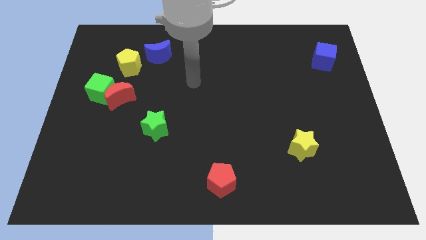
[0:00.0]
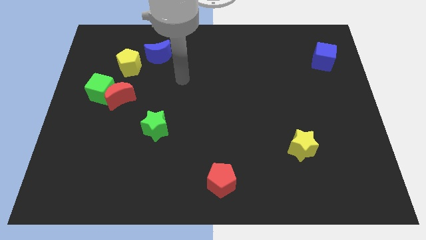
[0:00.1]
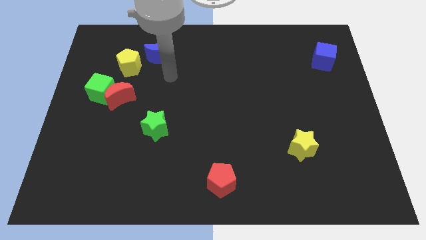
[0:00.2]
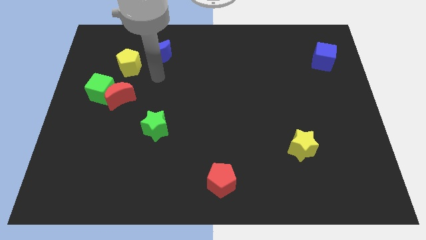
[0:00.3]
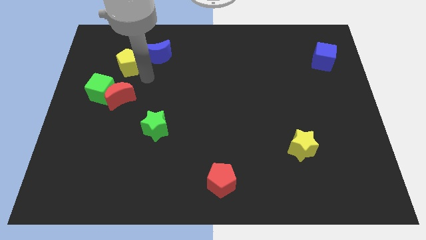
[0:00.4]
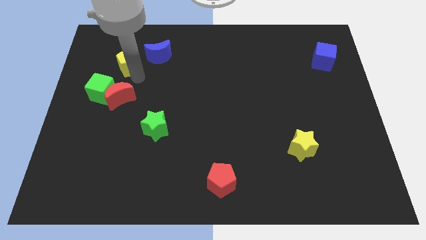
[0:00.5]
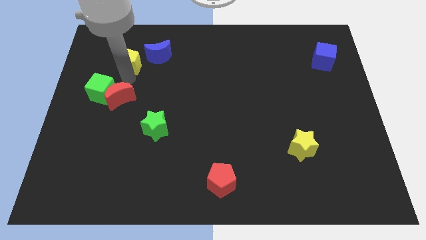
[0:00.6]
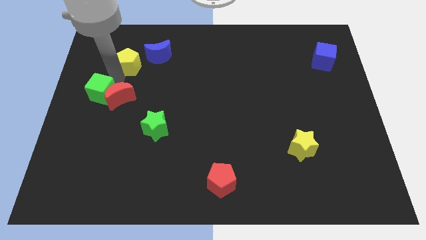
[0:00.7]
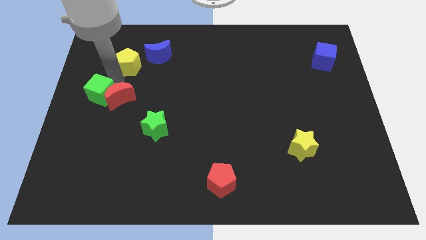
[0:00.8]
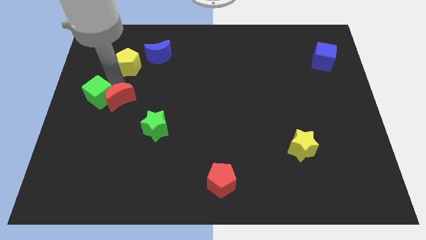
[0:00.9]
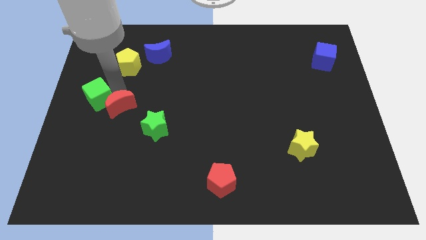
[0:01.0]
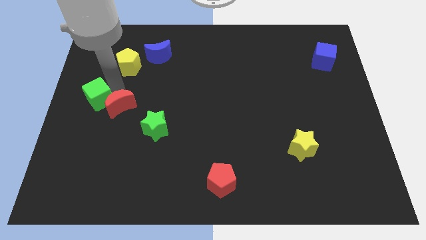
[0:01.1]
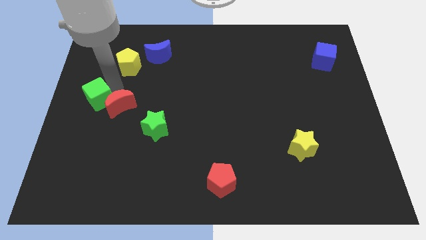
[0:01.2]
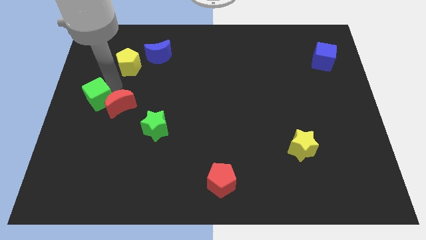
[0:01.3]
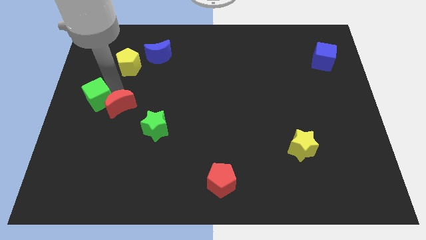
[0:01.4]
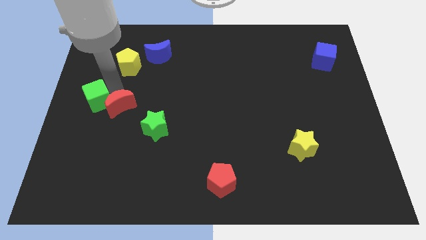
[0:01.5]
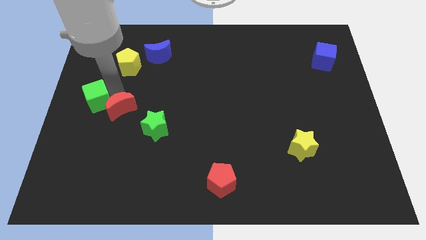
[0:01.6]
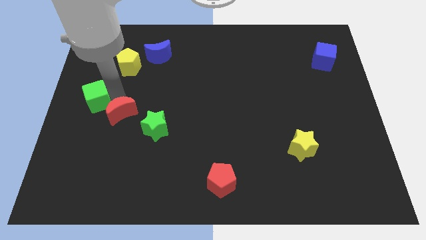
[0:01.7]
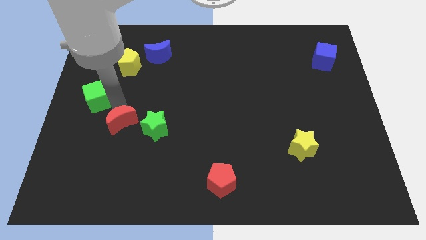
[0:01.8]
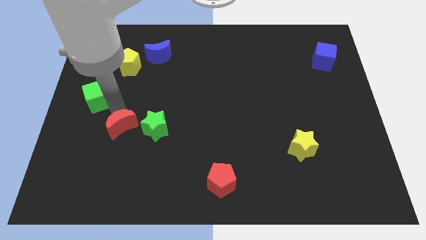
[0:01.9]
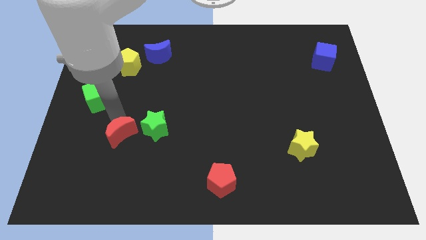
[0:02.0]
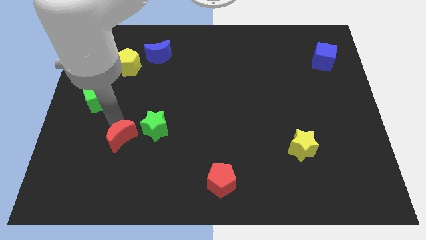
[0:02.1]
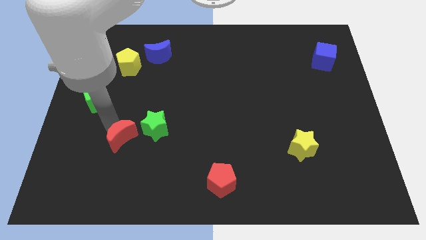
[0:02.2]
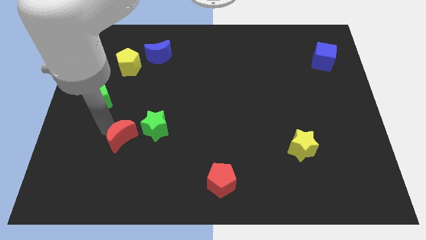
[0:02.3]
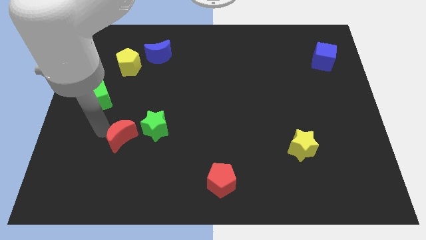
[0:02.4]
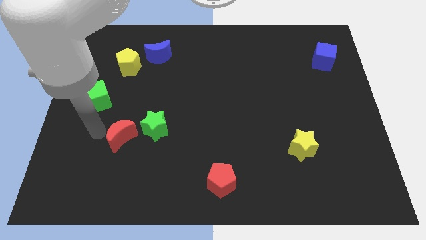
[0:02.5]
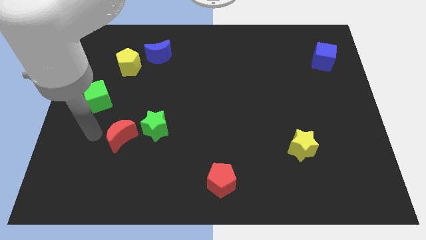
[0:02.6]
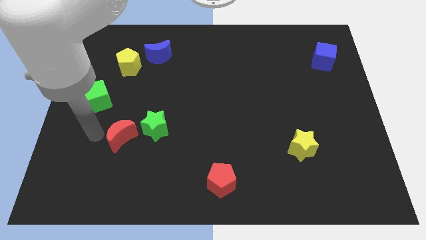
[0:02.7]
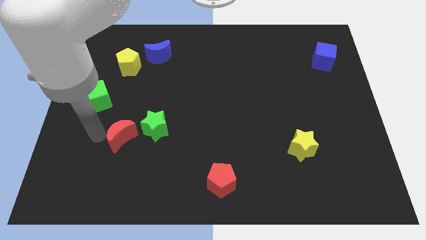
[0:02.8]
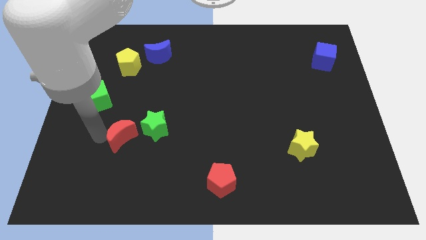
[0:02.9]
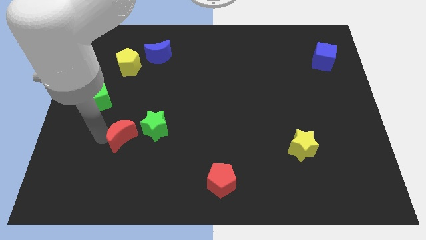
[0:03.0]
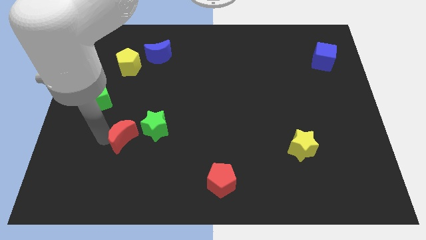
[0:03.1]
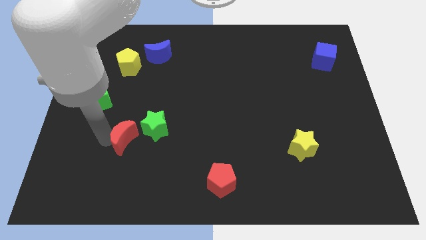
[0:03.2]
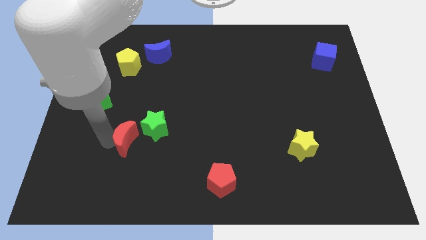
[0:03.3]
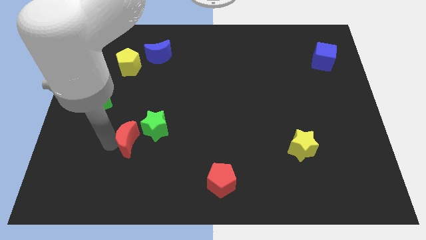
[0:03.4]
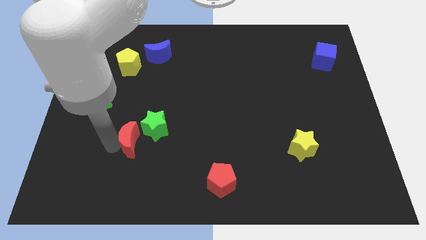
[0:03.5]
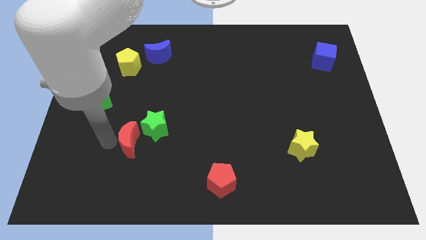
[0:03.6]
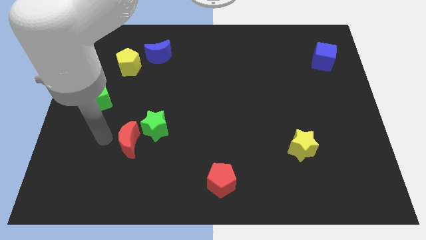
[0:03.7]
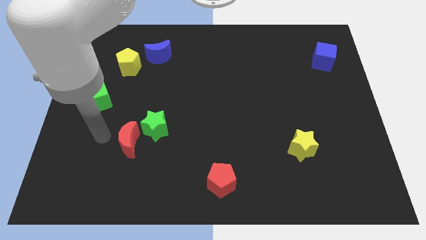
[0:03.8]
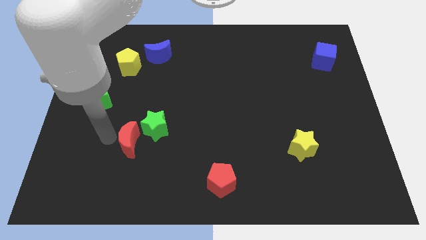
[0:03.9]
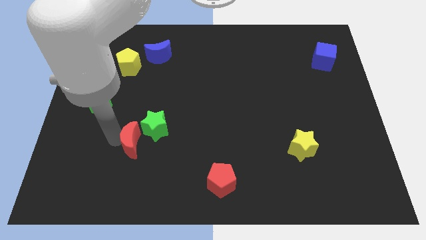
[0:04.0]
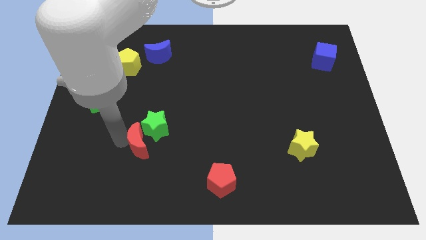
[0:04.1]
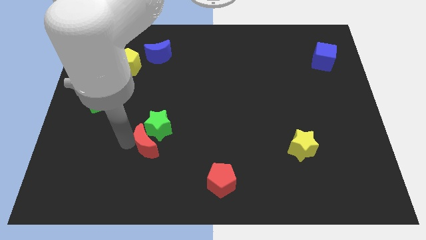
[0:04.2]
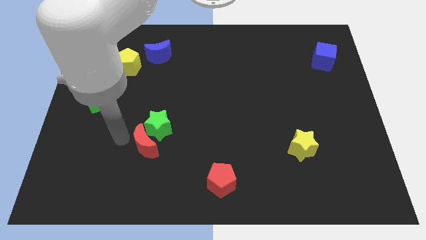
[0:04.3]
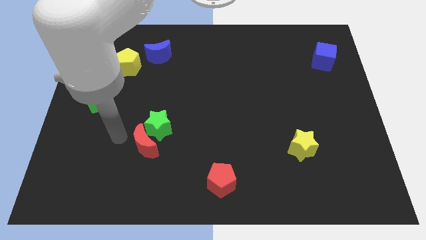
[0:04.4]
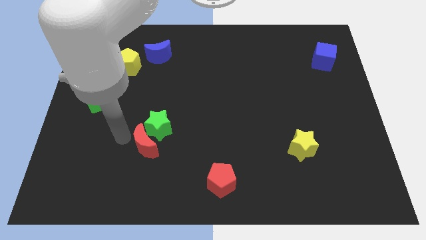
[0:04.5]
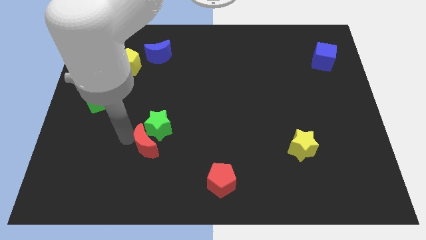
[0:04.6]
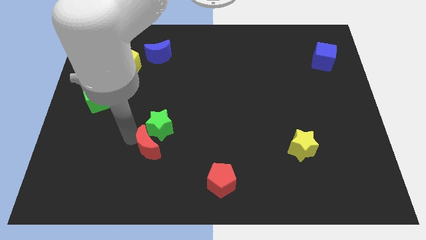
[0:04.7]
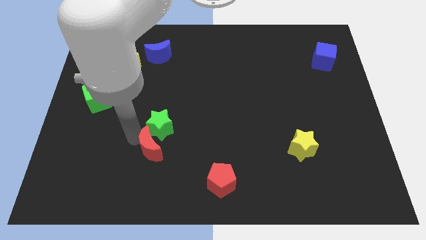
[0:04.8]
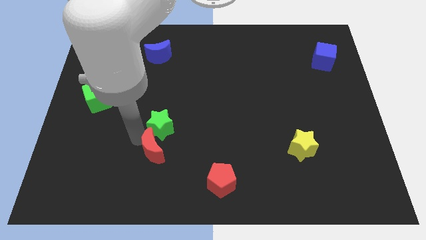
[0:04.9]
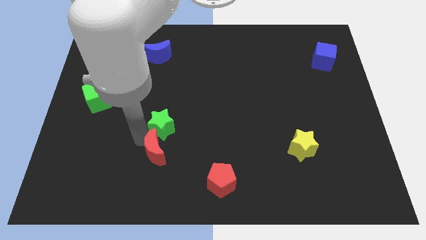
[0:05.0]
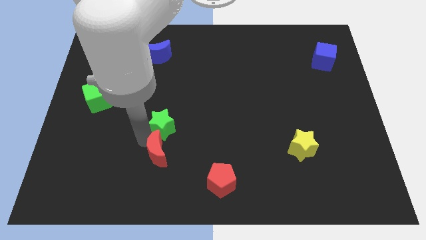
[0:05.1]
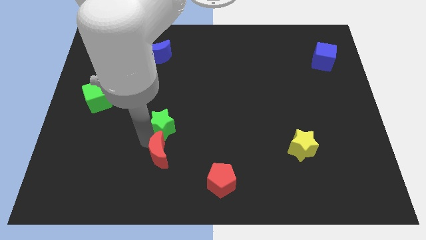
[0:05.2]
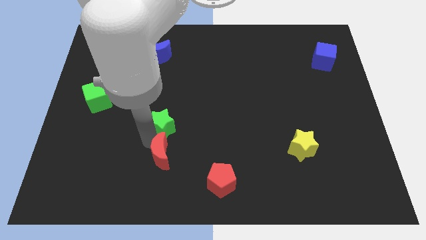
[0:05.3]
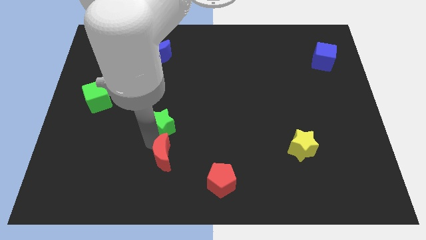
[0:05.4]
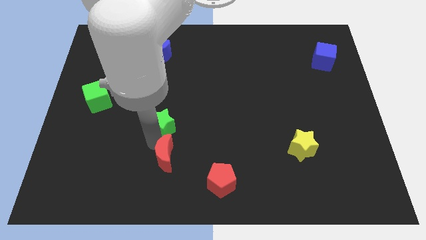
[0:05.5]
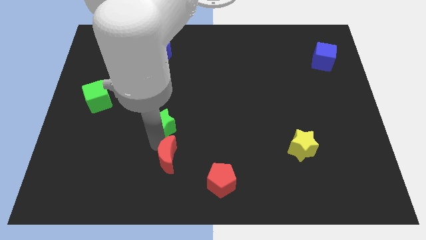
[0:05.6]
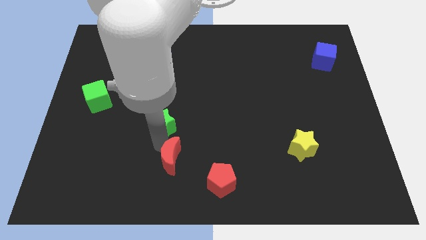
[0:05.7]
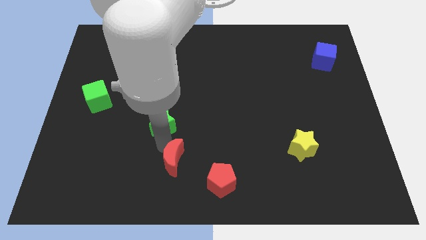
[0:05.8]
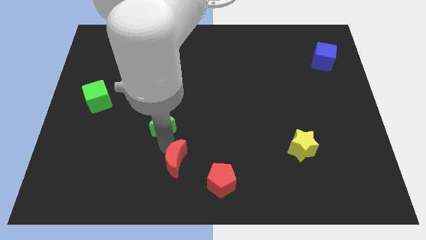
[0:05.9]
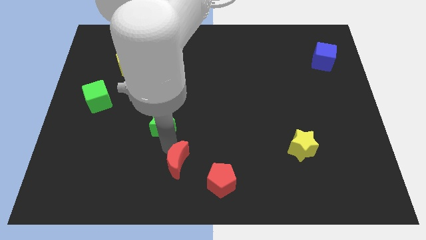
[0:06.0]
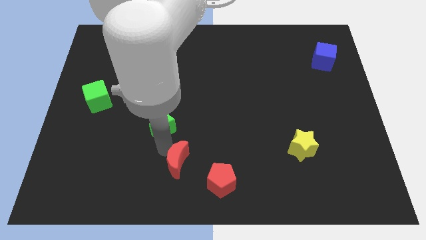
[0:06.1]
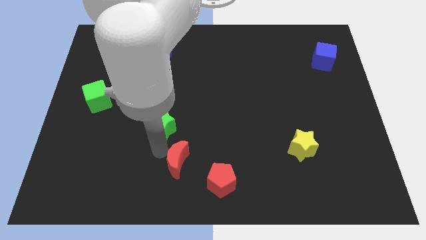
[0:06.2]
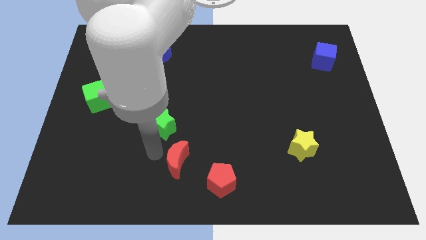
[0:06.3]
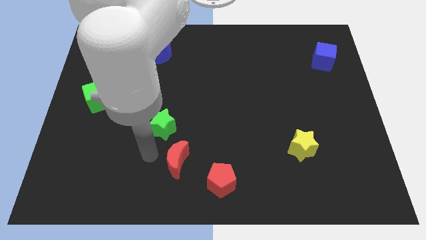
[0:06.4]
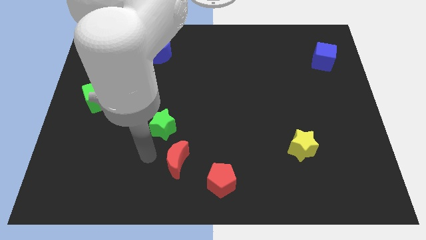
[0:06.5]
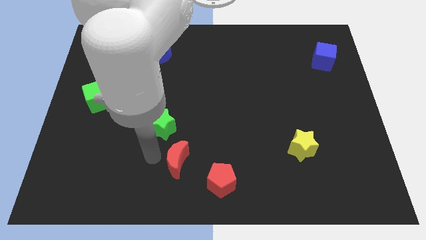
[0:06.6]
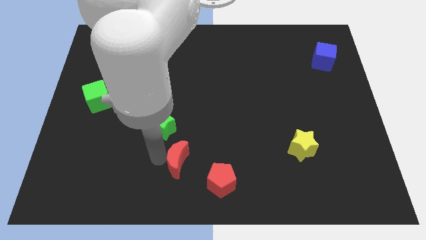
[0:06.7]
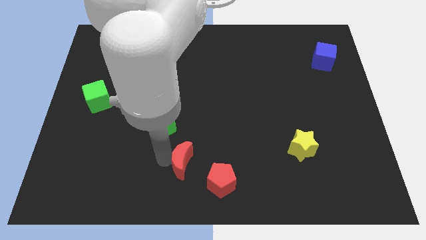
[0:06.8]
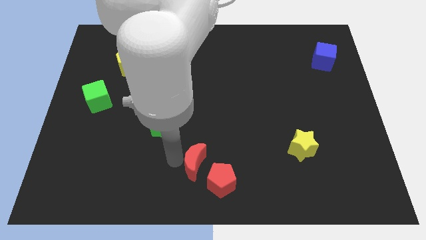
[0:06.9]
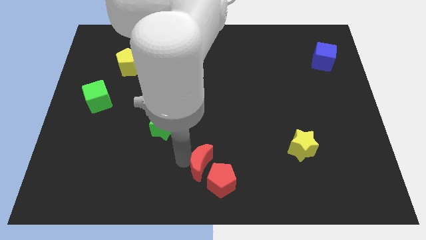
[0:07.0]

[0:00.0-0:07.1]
slide the red moon towards the red pentagon

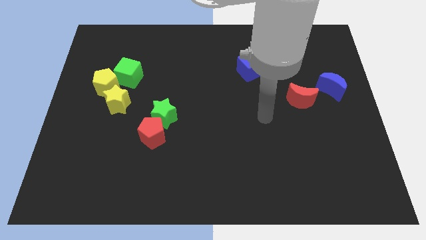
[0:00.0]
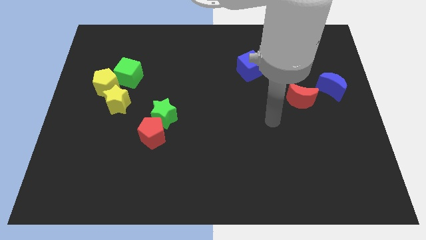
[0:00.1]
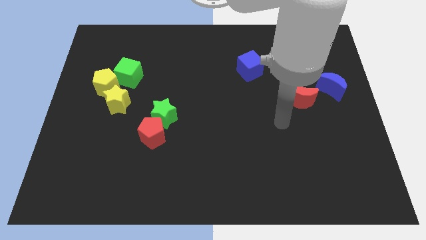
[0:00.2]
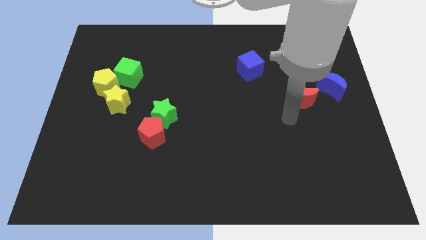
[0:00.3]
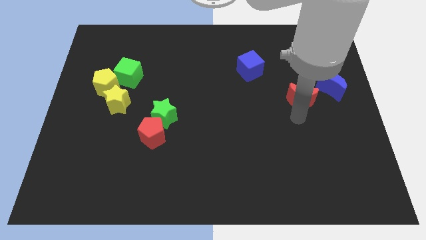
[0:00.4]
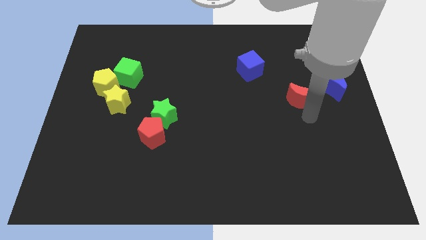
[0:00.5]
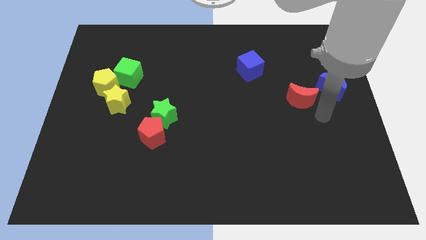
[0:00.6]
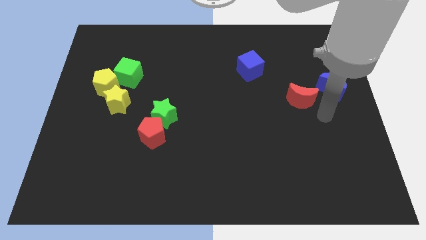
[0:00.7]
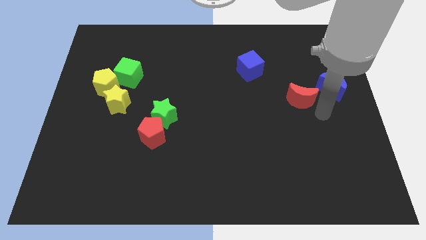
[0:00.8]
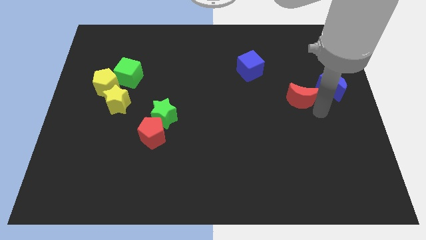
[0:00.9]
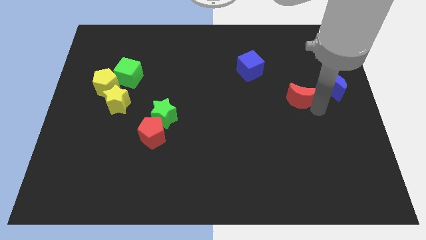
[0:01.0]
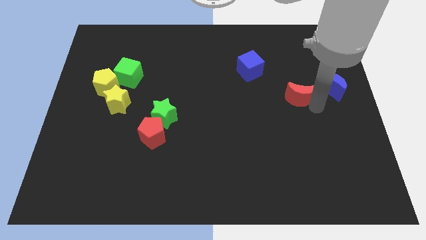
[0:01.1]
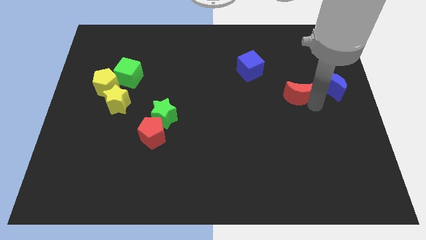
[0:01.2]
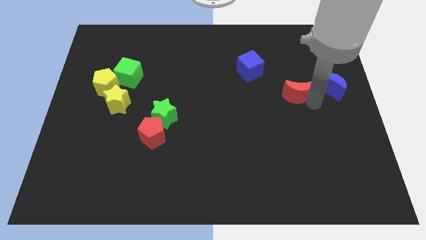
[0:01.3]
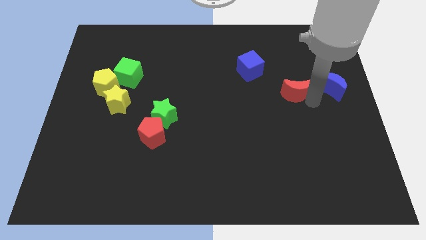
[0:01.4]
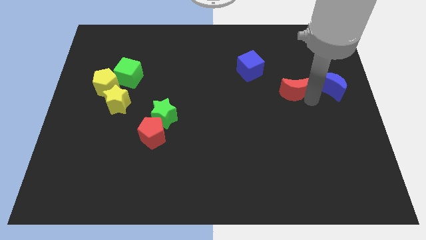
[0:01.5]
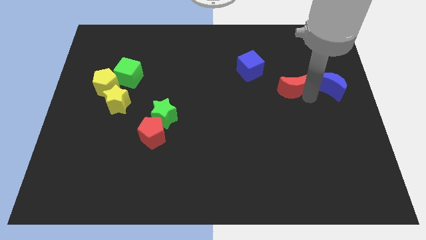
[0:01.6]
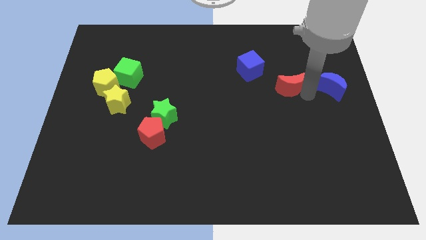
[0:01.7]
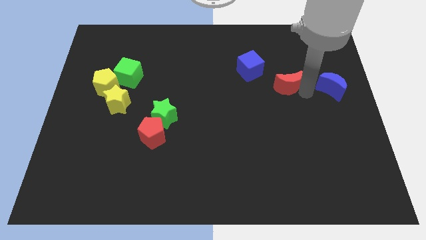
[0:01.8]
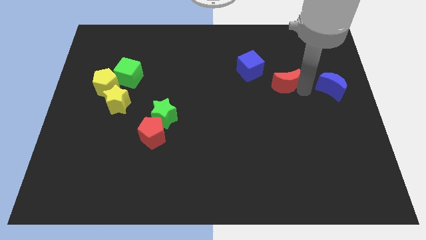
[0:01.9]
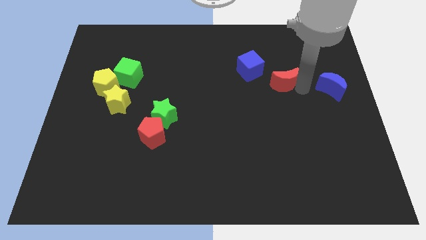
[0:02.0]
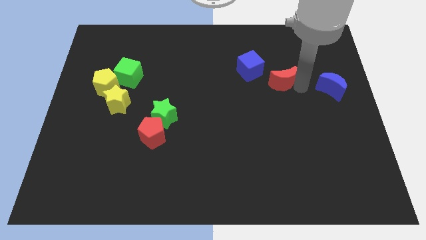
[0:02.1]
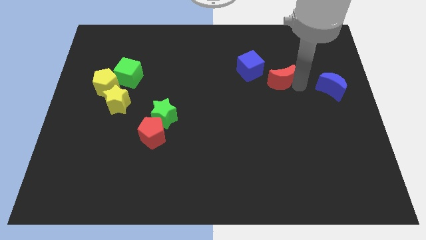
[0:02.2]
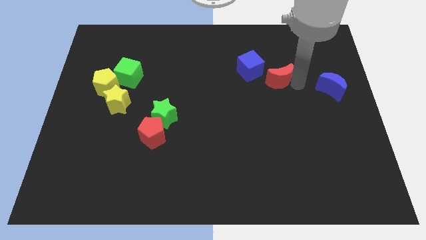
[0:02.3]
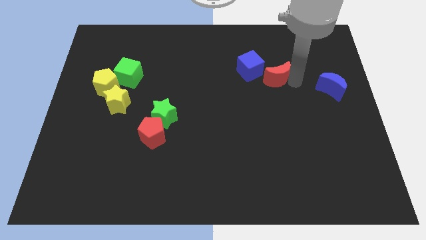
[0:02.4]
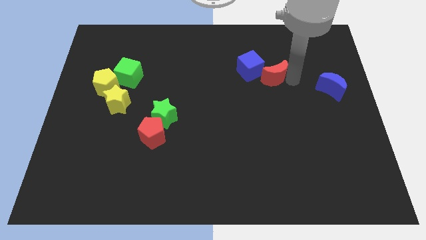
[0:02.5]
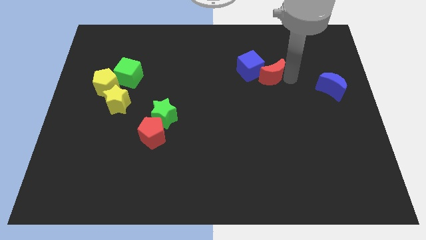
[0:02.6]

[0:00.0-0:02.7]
put the red moon next to the blue cube
